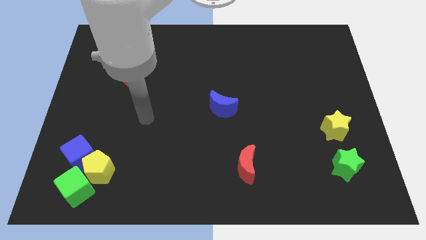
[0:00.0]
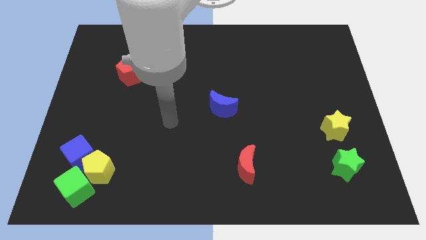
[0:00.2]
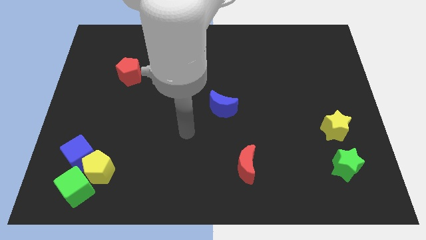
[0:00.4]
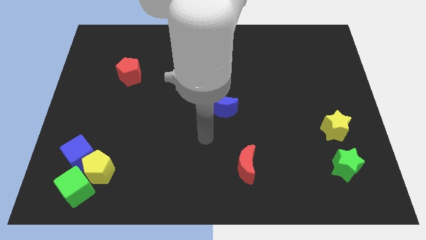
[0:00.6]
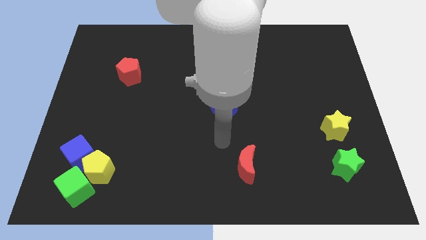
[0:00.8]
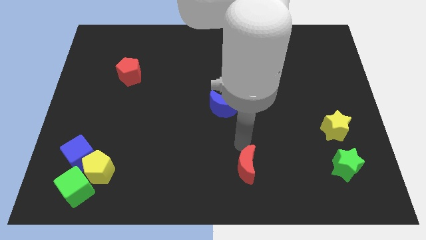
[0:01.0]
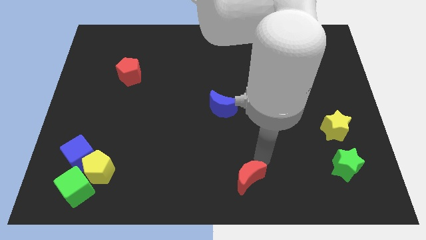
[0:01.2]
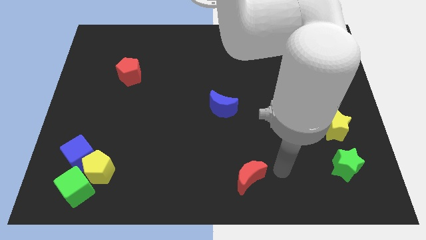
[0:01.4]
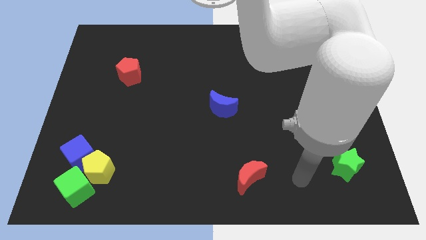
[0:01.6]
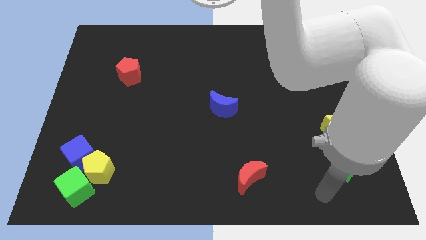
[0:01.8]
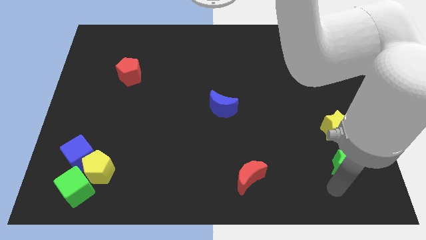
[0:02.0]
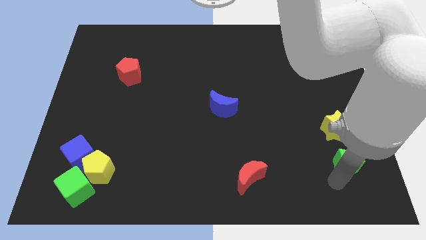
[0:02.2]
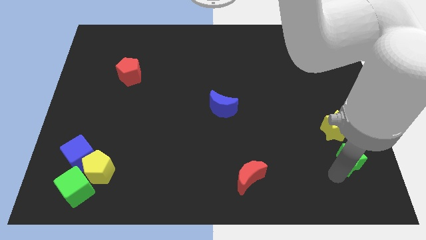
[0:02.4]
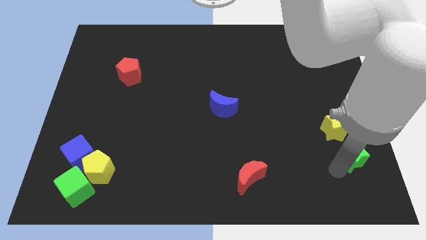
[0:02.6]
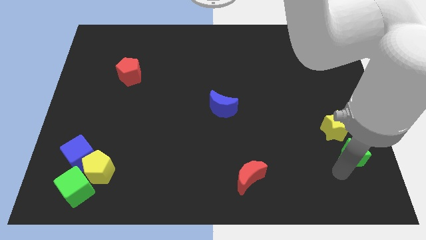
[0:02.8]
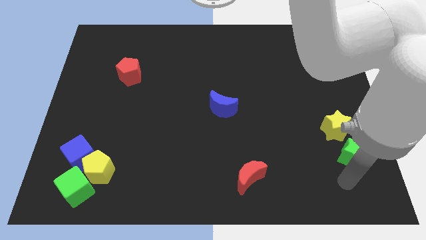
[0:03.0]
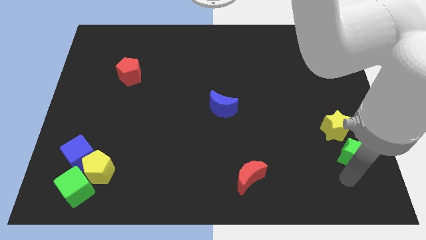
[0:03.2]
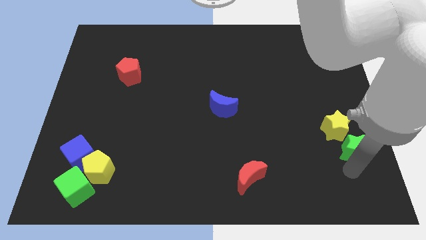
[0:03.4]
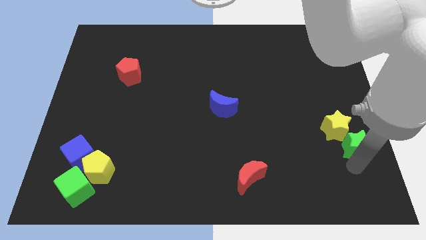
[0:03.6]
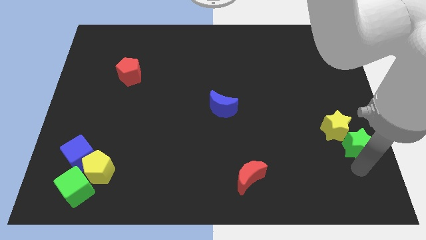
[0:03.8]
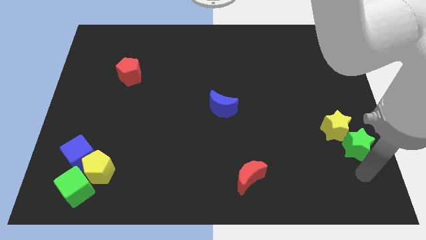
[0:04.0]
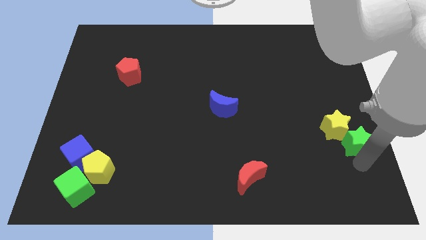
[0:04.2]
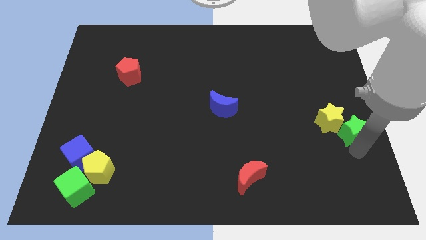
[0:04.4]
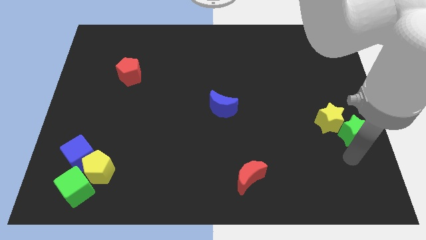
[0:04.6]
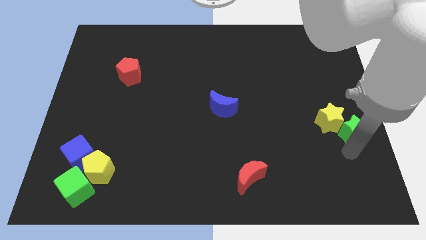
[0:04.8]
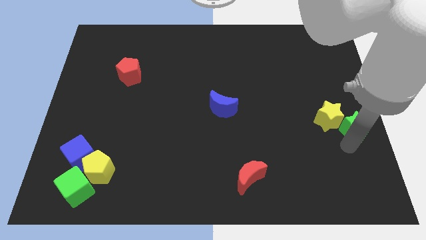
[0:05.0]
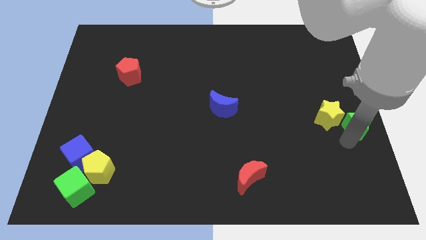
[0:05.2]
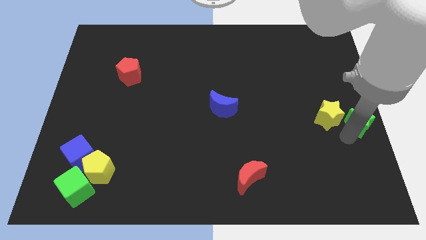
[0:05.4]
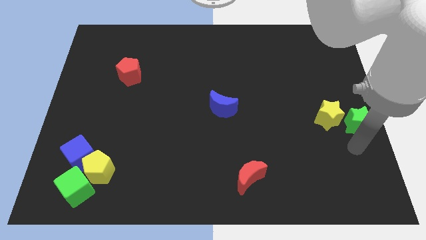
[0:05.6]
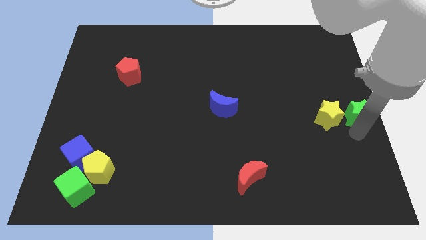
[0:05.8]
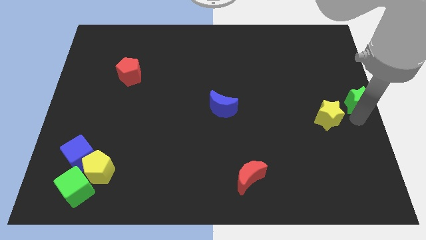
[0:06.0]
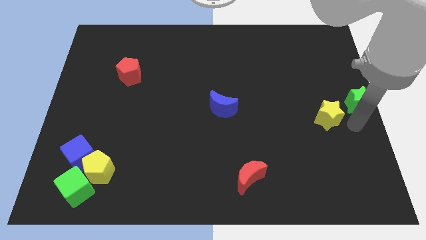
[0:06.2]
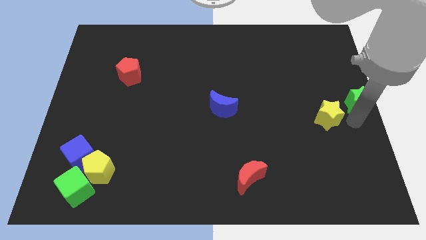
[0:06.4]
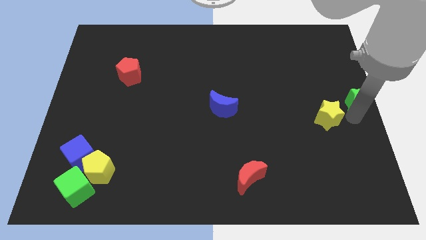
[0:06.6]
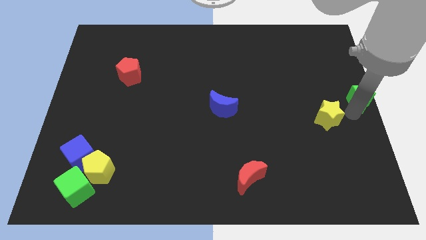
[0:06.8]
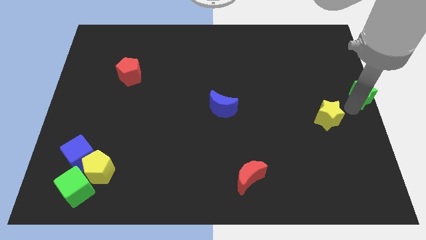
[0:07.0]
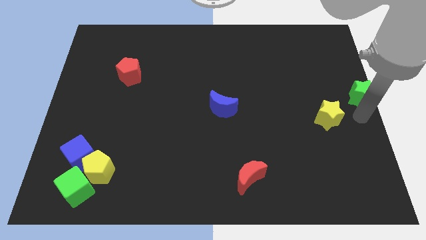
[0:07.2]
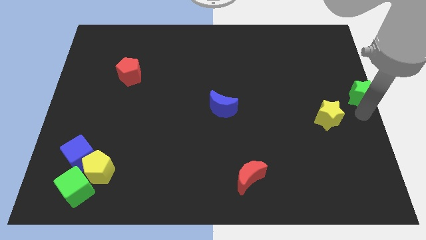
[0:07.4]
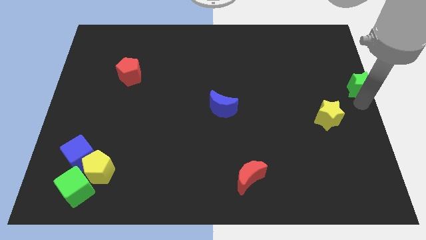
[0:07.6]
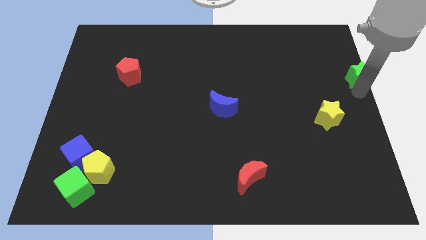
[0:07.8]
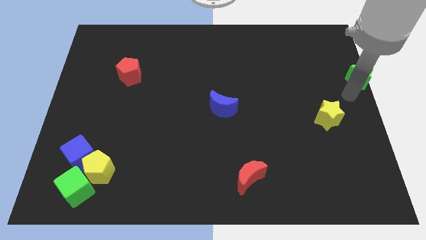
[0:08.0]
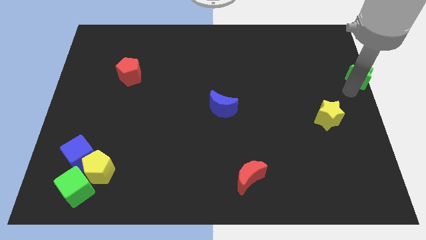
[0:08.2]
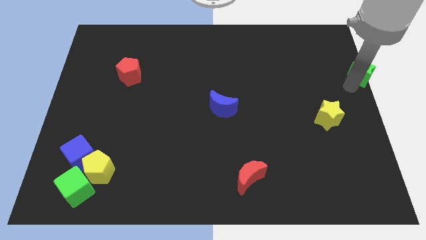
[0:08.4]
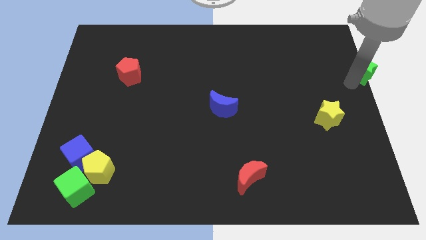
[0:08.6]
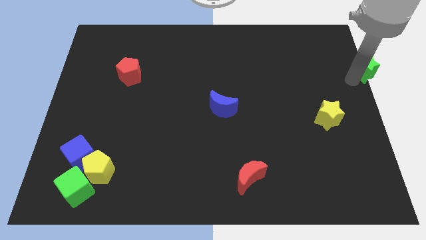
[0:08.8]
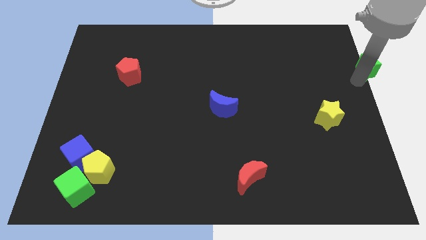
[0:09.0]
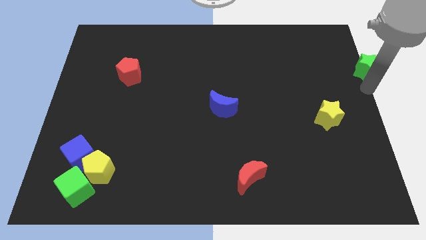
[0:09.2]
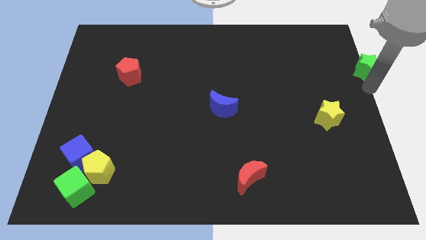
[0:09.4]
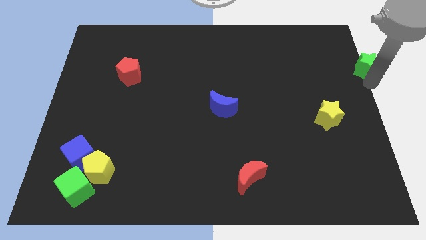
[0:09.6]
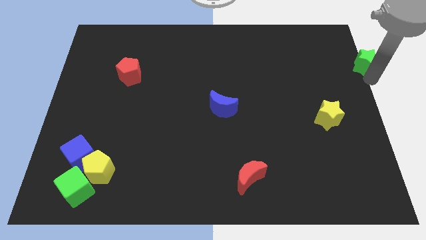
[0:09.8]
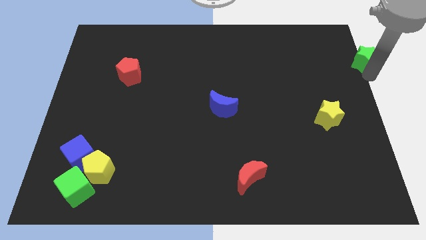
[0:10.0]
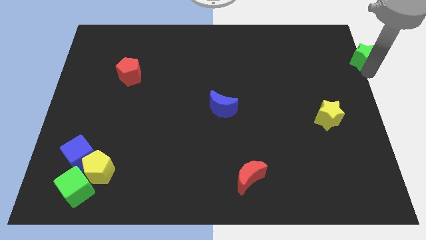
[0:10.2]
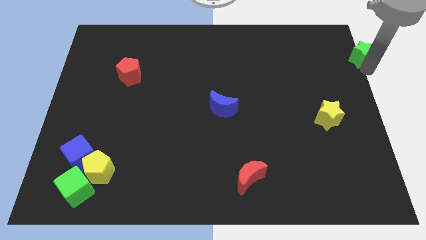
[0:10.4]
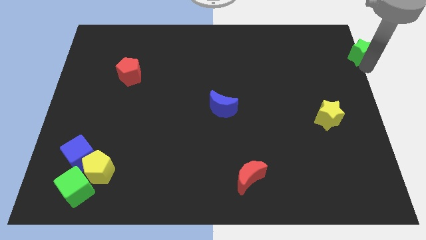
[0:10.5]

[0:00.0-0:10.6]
put the green star to the top right of the board

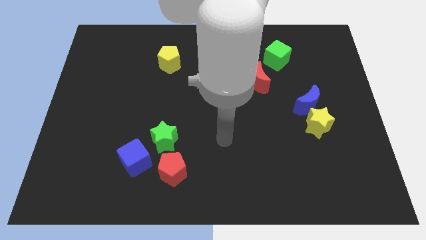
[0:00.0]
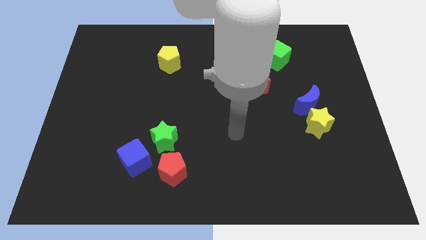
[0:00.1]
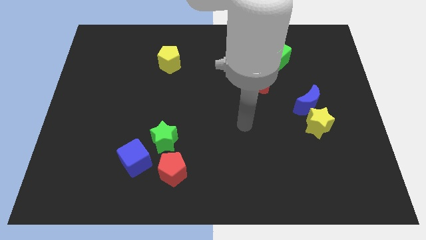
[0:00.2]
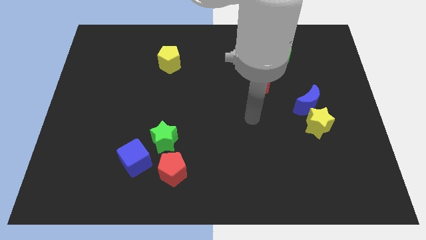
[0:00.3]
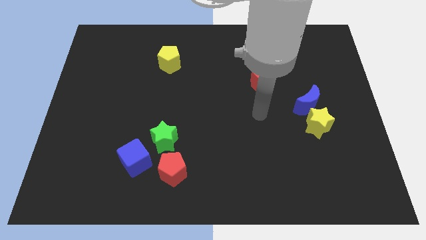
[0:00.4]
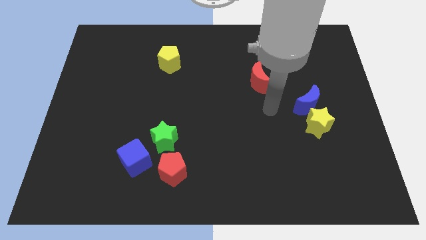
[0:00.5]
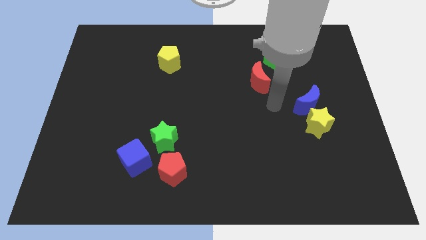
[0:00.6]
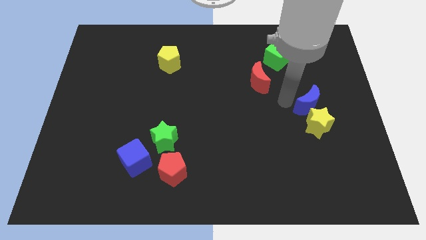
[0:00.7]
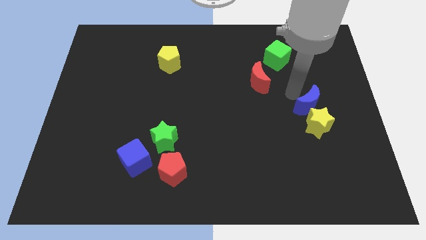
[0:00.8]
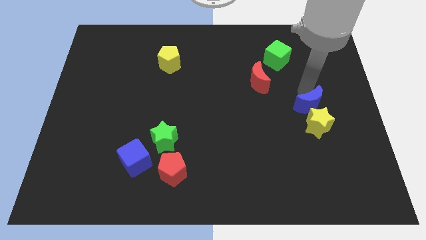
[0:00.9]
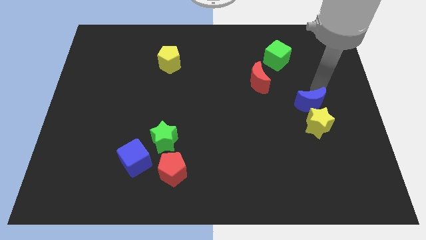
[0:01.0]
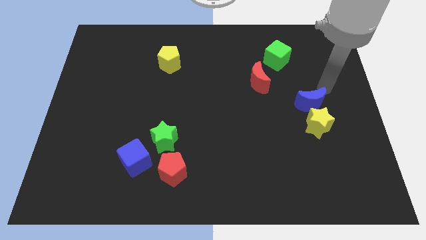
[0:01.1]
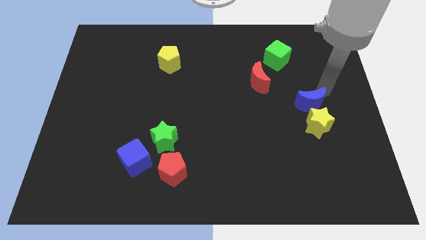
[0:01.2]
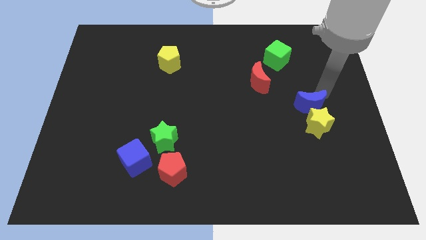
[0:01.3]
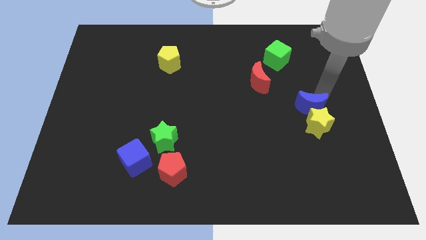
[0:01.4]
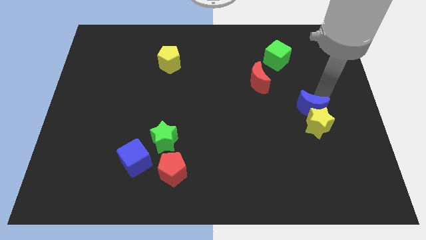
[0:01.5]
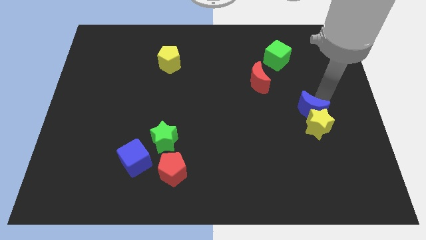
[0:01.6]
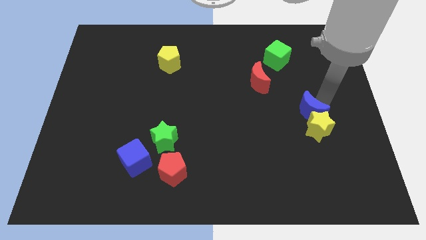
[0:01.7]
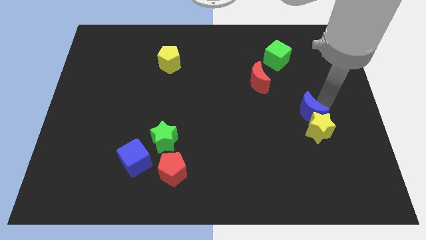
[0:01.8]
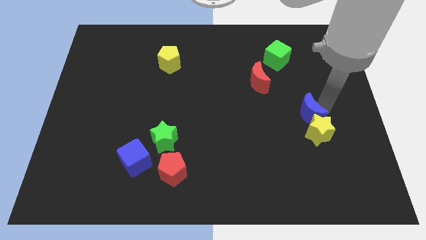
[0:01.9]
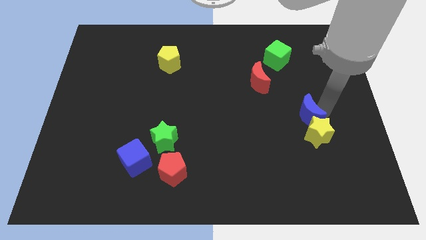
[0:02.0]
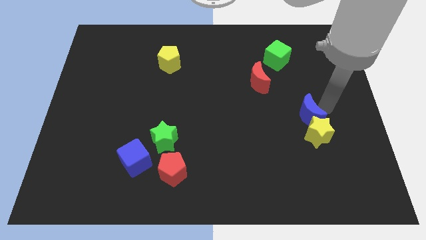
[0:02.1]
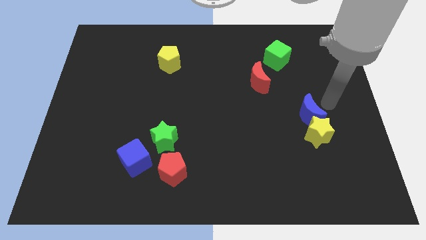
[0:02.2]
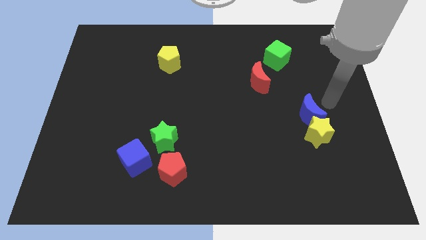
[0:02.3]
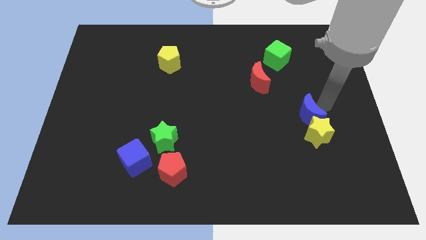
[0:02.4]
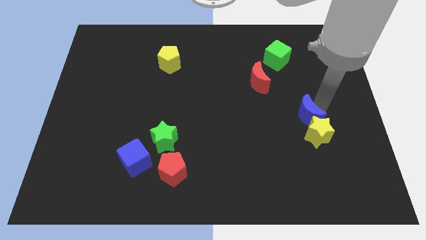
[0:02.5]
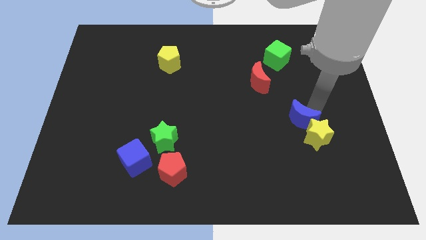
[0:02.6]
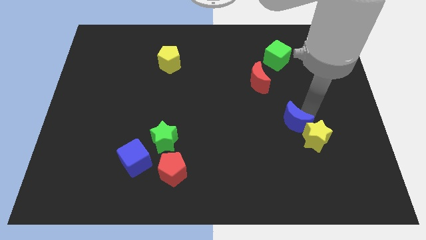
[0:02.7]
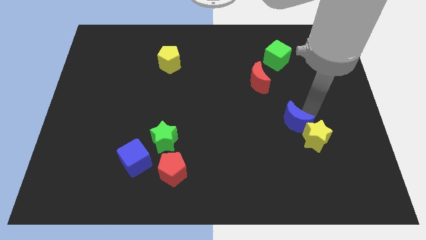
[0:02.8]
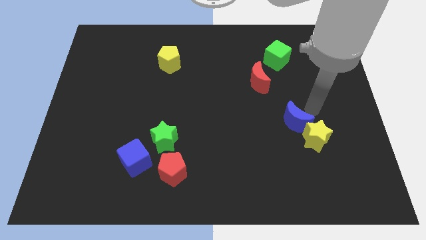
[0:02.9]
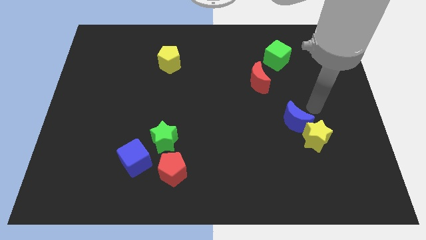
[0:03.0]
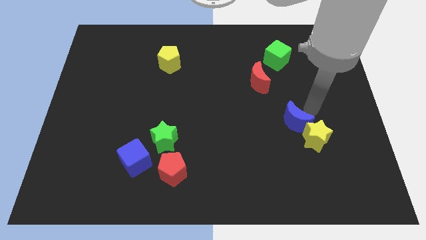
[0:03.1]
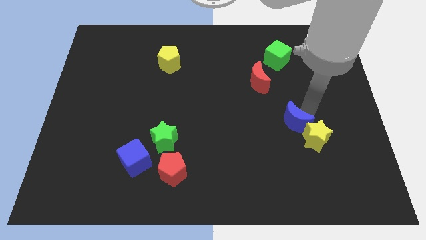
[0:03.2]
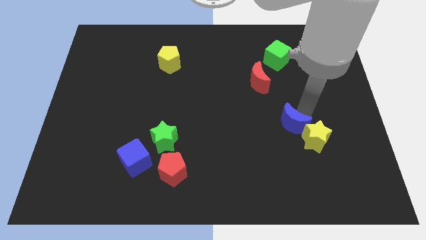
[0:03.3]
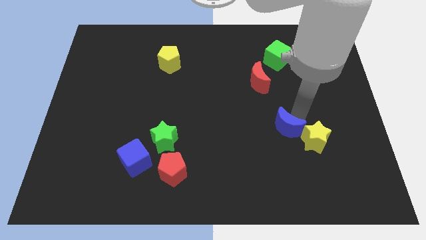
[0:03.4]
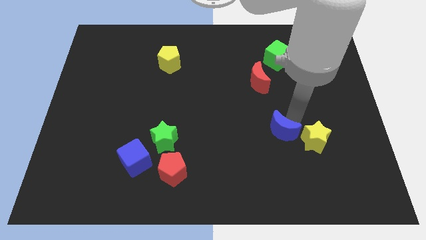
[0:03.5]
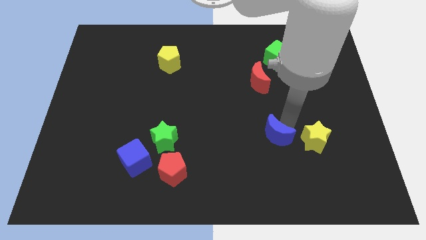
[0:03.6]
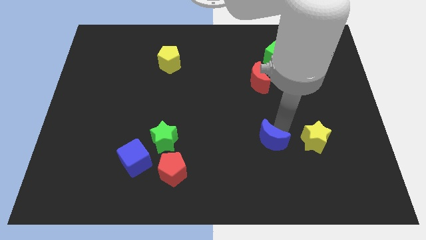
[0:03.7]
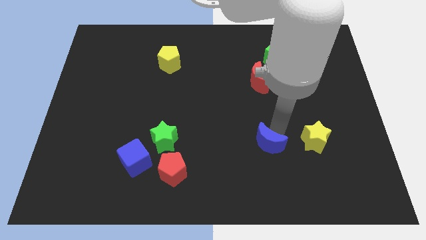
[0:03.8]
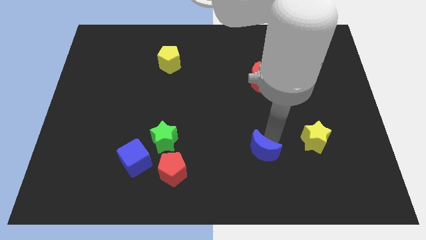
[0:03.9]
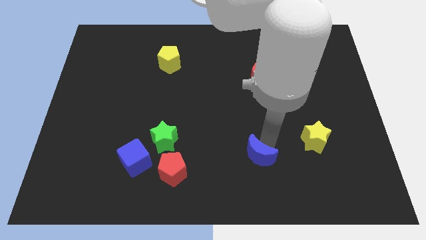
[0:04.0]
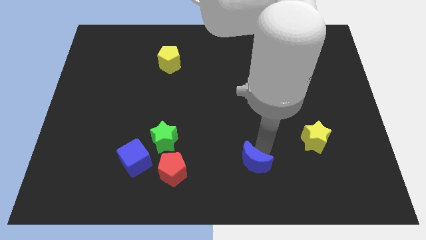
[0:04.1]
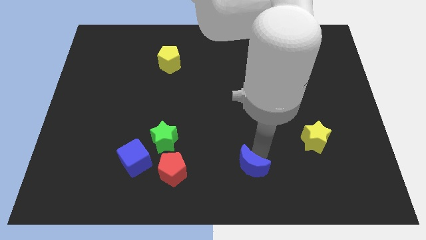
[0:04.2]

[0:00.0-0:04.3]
put the blue moon to the bottom side
